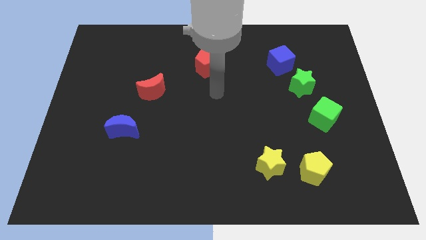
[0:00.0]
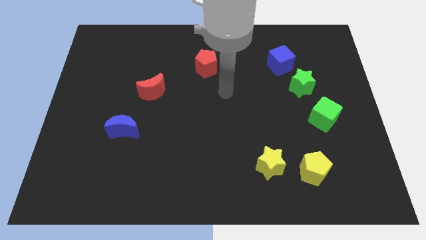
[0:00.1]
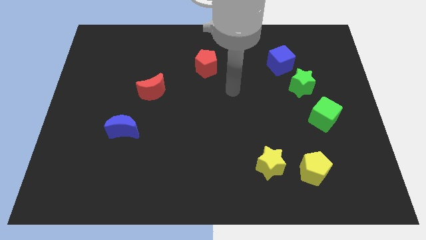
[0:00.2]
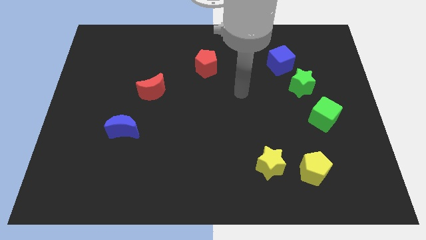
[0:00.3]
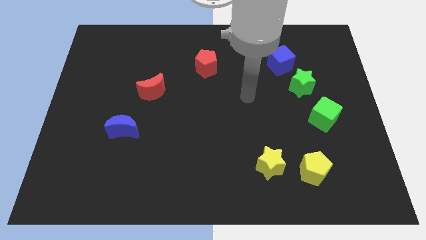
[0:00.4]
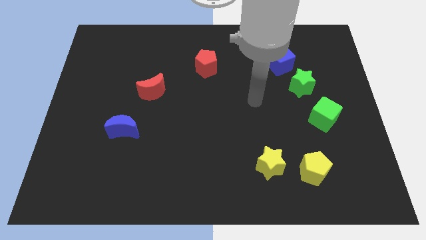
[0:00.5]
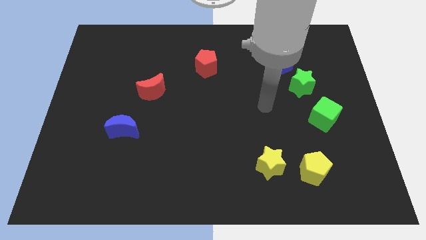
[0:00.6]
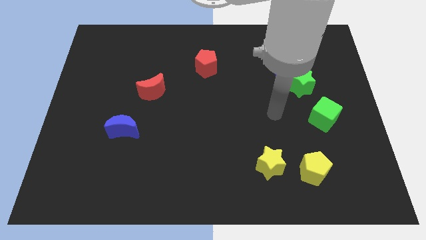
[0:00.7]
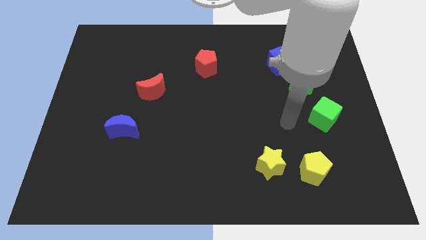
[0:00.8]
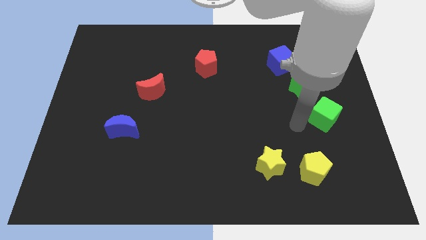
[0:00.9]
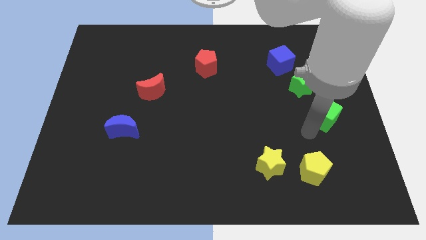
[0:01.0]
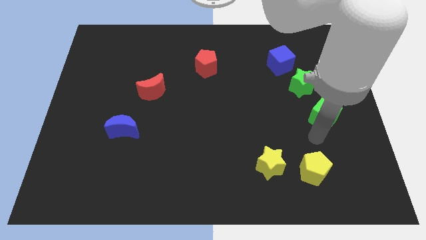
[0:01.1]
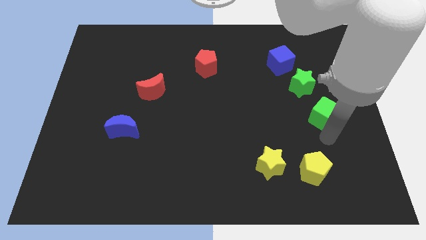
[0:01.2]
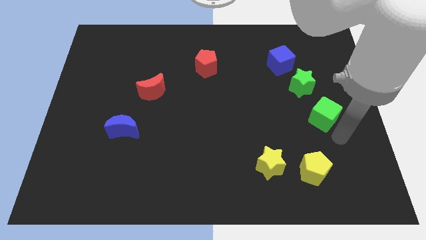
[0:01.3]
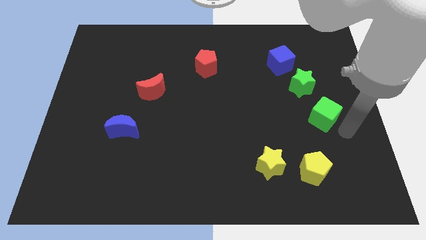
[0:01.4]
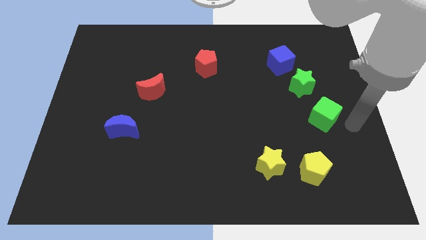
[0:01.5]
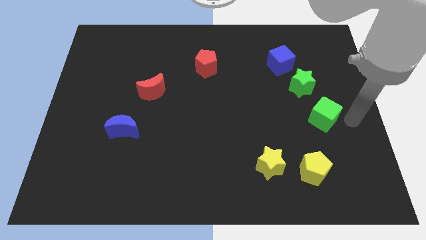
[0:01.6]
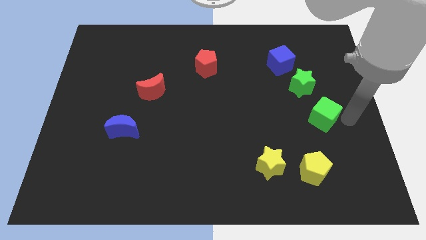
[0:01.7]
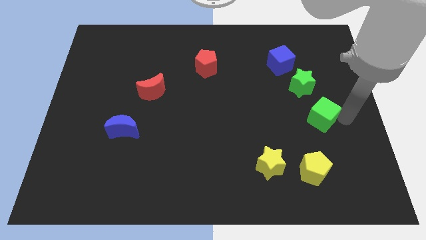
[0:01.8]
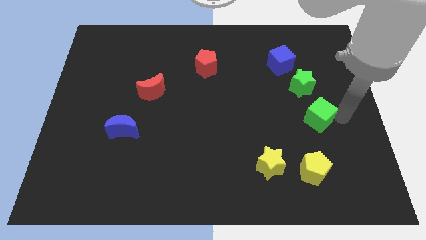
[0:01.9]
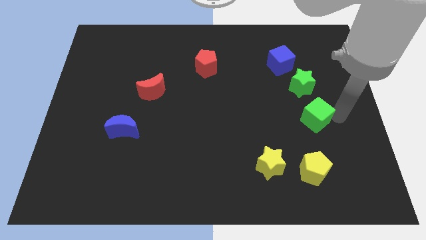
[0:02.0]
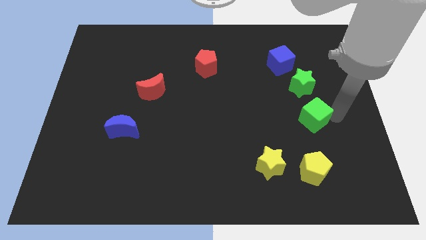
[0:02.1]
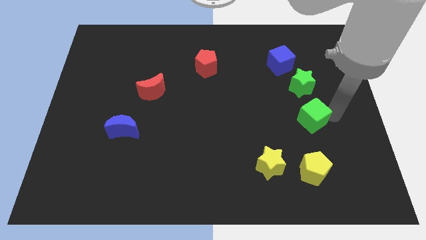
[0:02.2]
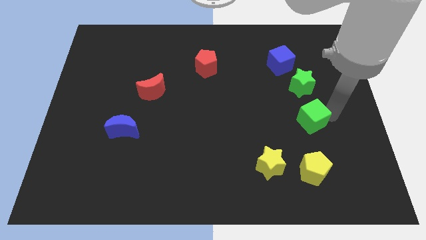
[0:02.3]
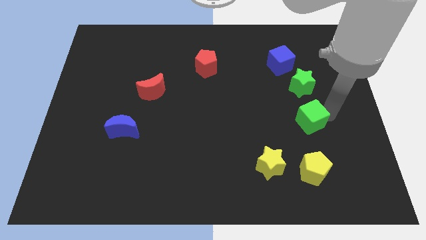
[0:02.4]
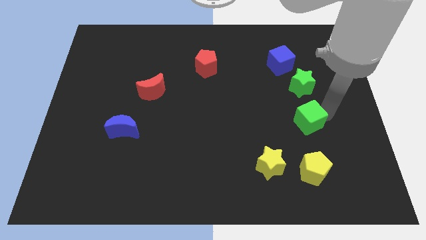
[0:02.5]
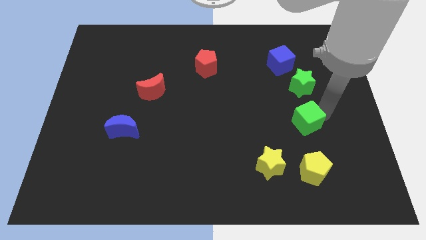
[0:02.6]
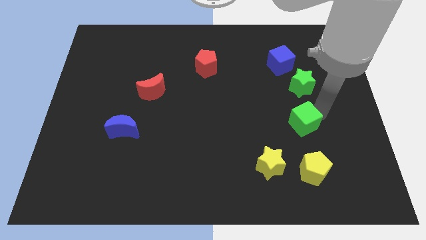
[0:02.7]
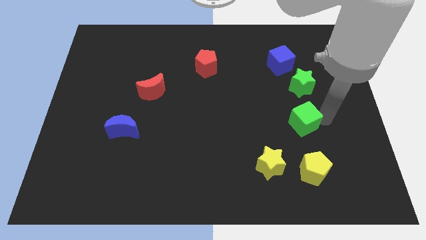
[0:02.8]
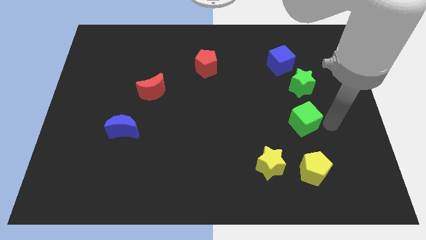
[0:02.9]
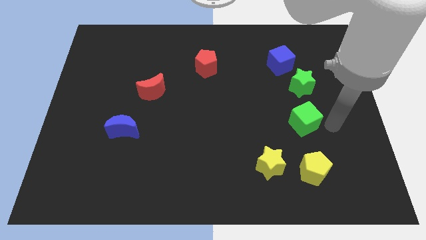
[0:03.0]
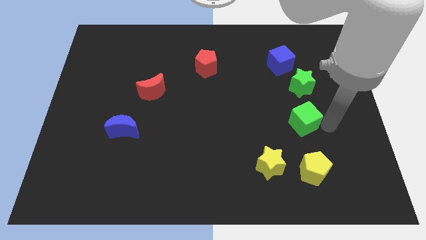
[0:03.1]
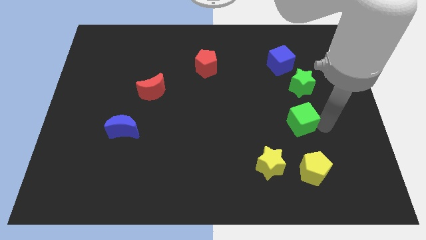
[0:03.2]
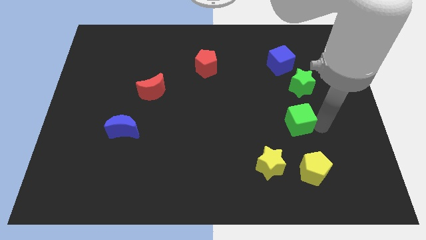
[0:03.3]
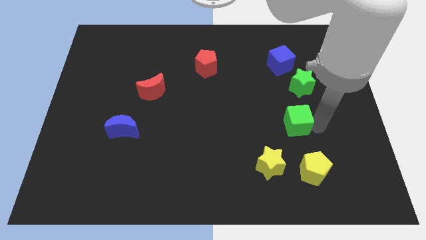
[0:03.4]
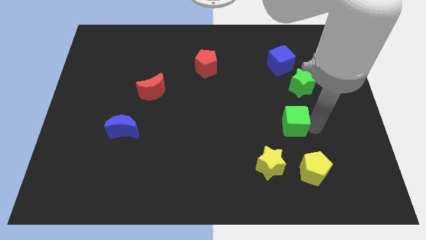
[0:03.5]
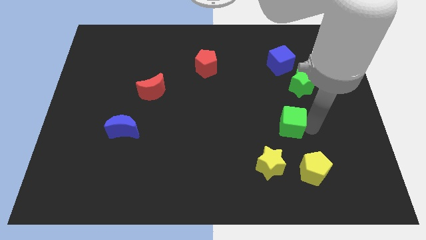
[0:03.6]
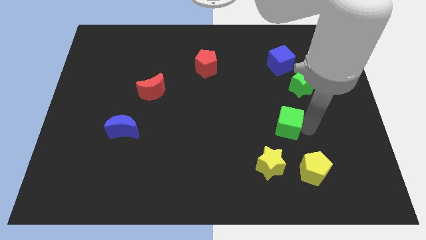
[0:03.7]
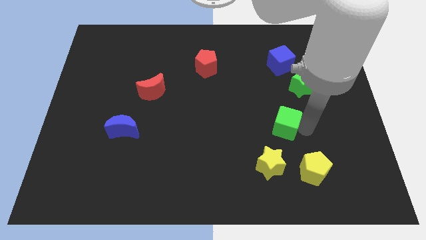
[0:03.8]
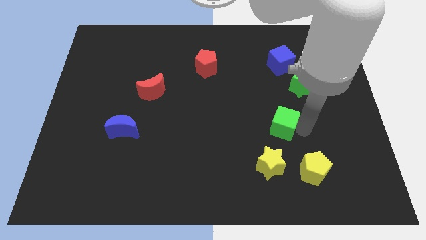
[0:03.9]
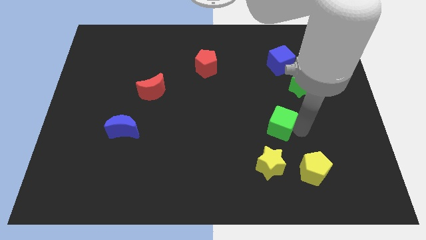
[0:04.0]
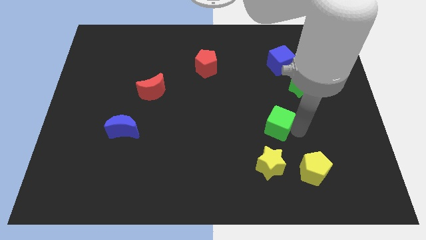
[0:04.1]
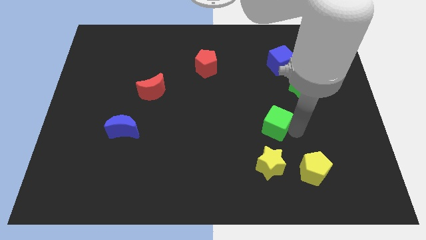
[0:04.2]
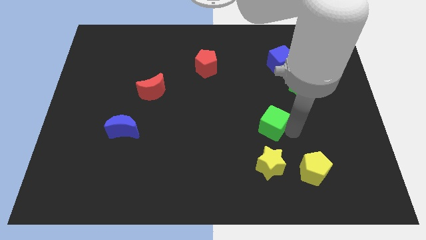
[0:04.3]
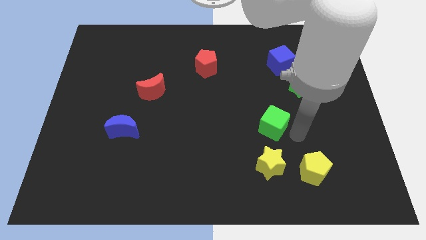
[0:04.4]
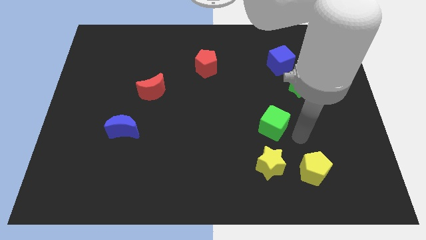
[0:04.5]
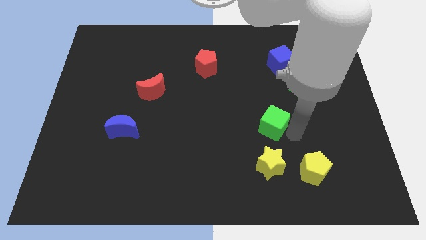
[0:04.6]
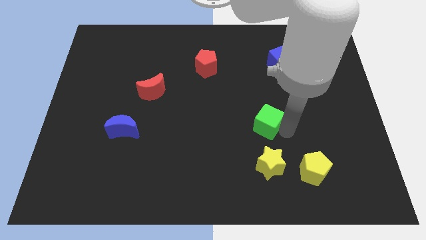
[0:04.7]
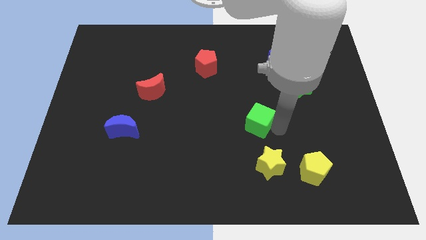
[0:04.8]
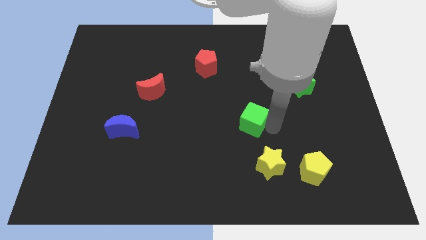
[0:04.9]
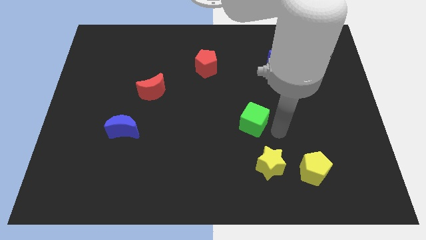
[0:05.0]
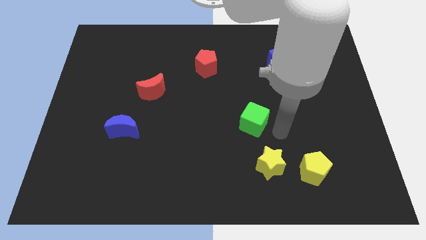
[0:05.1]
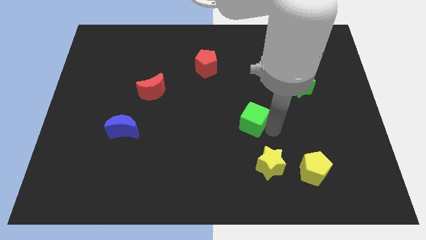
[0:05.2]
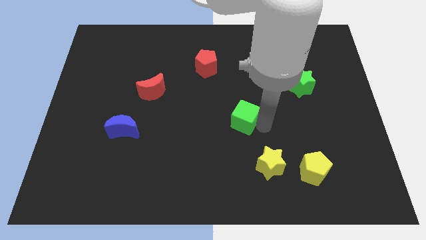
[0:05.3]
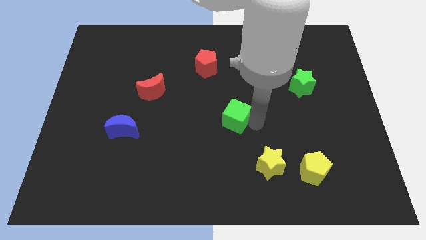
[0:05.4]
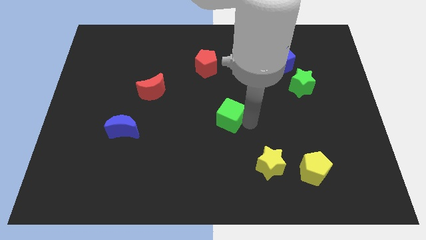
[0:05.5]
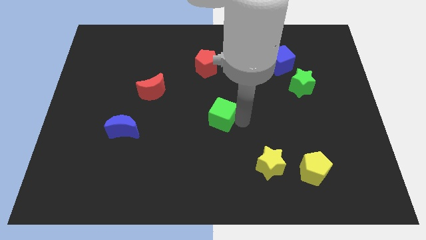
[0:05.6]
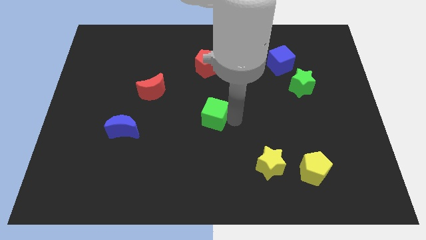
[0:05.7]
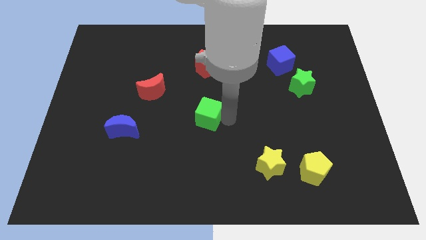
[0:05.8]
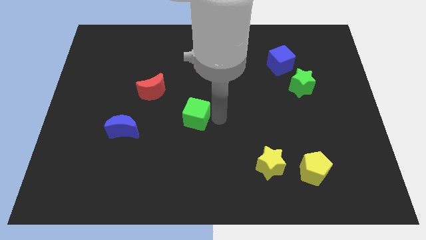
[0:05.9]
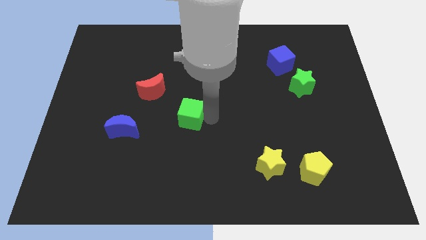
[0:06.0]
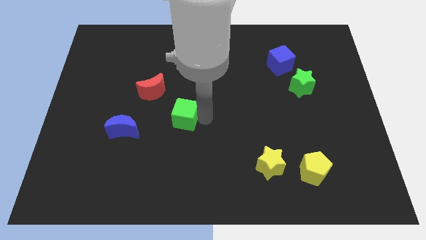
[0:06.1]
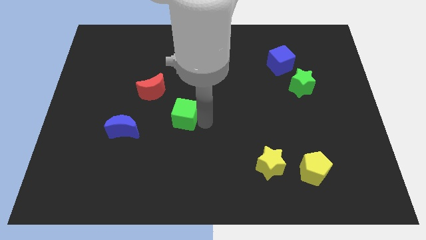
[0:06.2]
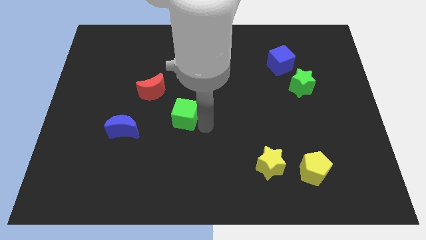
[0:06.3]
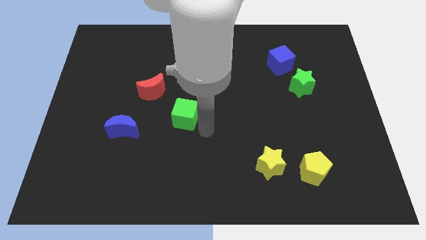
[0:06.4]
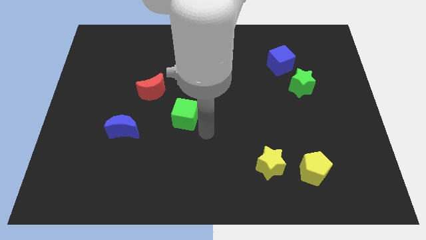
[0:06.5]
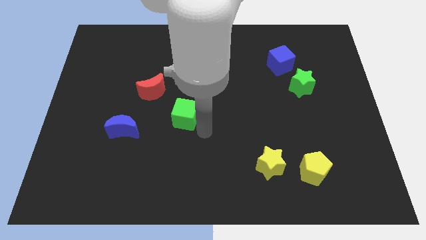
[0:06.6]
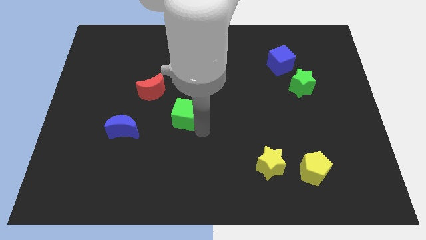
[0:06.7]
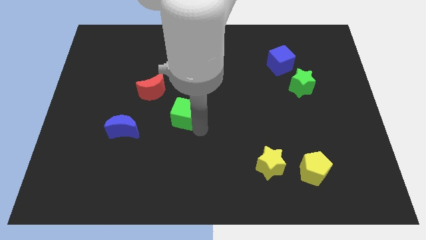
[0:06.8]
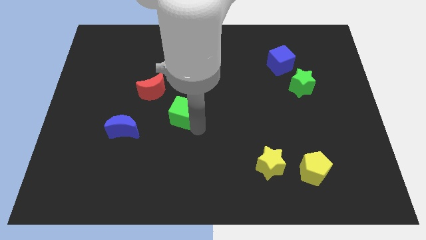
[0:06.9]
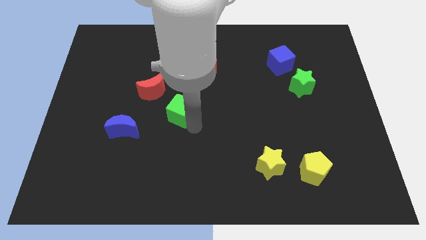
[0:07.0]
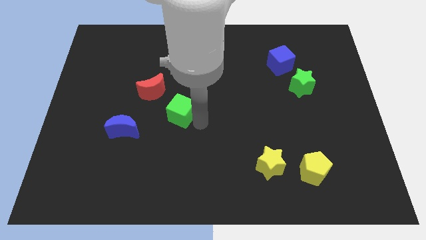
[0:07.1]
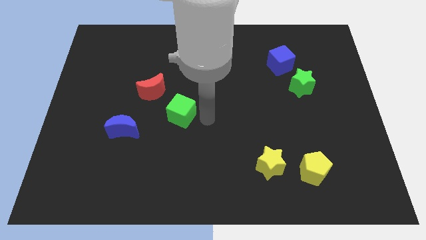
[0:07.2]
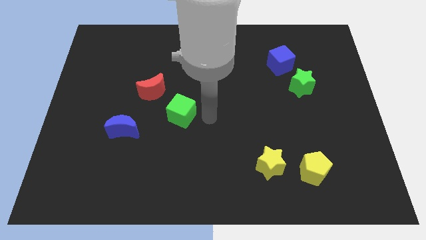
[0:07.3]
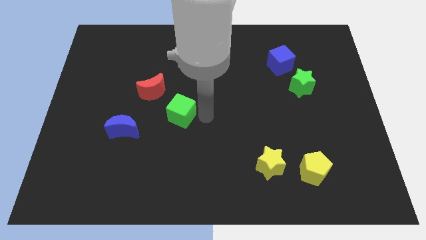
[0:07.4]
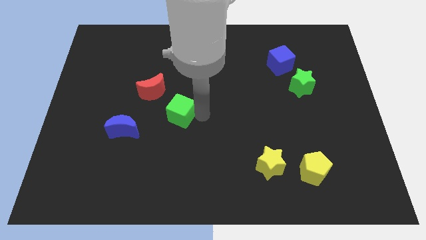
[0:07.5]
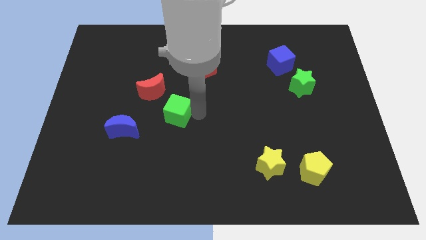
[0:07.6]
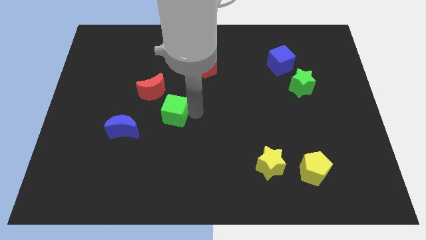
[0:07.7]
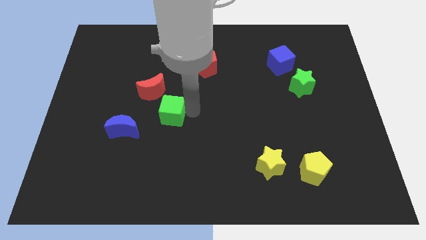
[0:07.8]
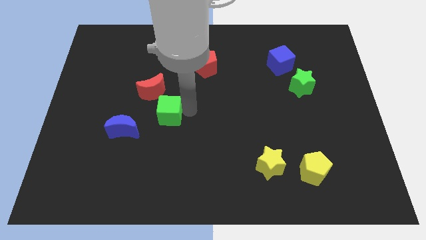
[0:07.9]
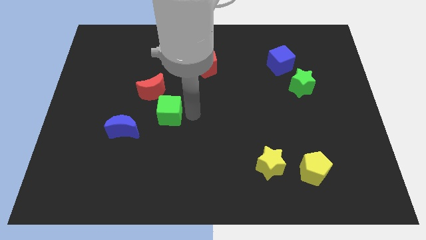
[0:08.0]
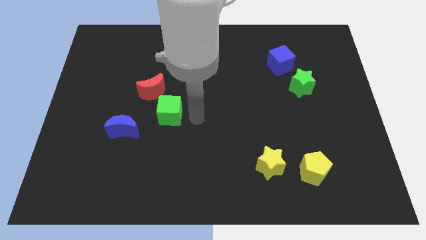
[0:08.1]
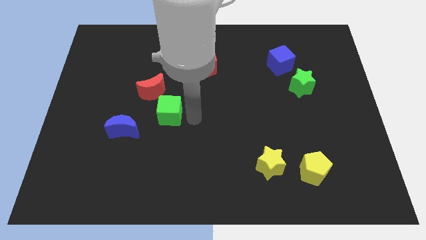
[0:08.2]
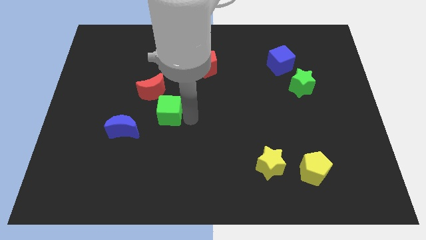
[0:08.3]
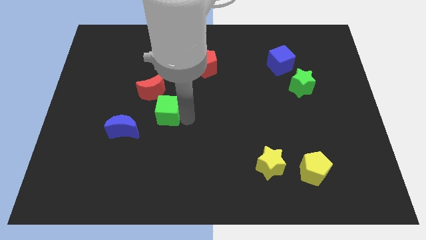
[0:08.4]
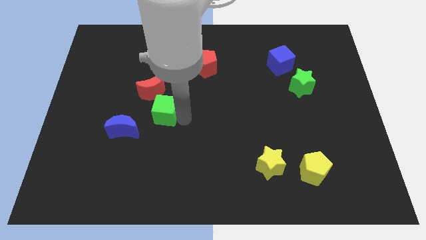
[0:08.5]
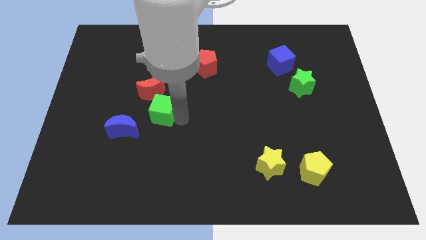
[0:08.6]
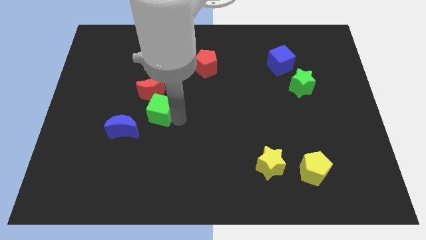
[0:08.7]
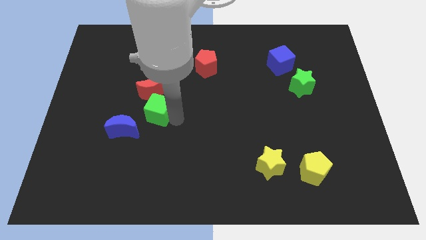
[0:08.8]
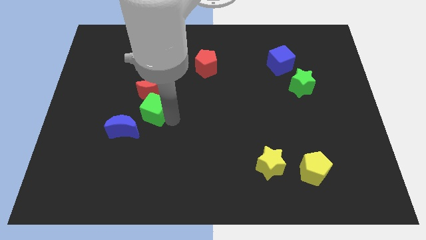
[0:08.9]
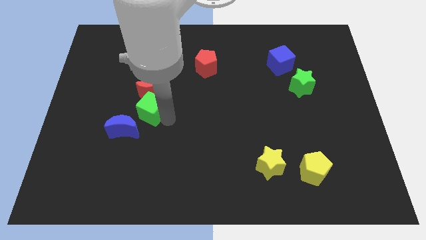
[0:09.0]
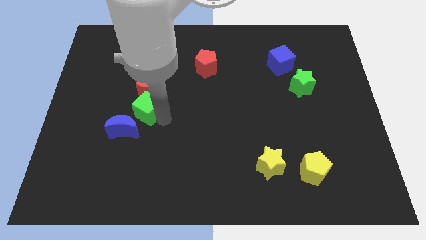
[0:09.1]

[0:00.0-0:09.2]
push the green cube to the top side of the blue moon
